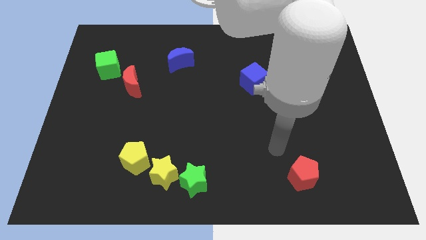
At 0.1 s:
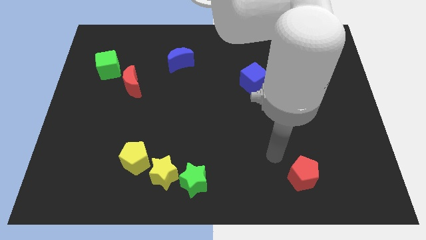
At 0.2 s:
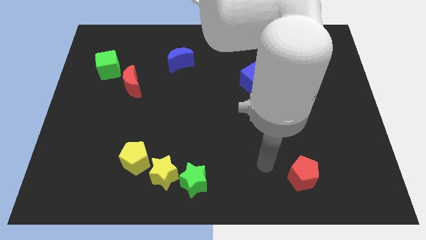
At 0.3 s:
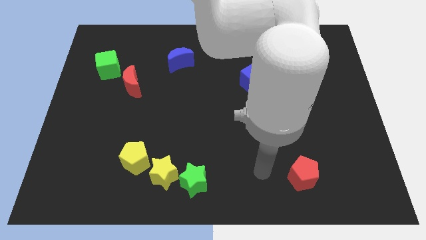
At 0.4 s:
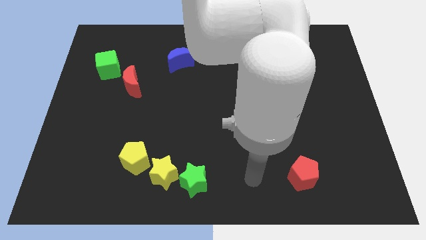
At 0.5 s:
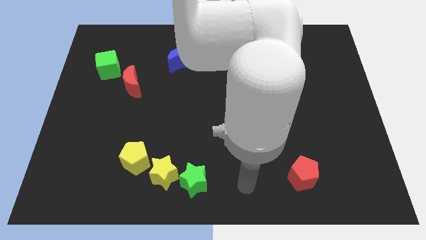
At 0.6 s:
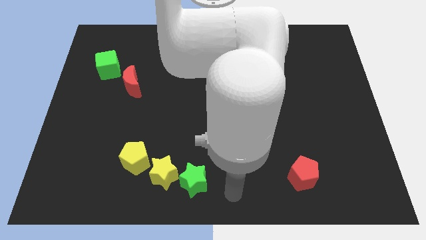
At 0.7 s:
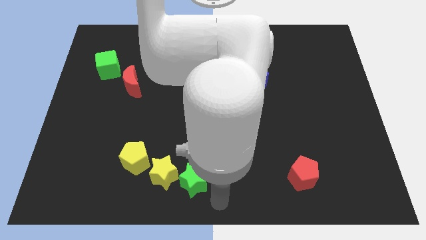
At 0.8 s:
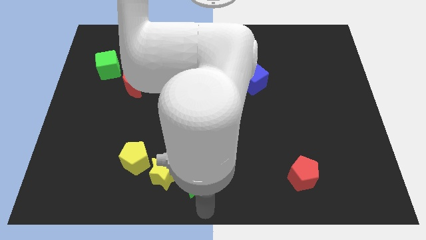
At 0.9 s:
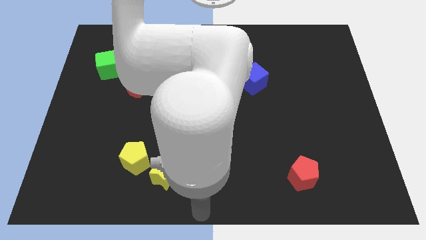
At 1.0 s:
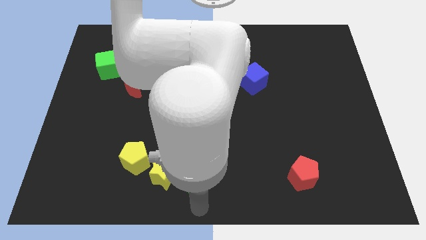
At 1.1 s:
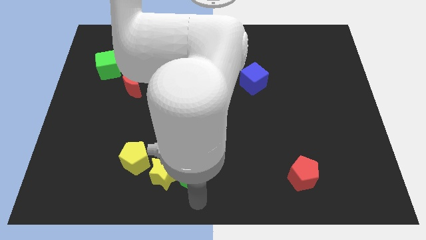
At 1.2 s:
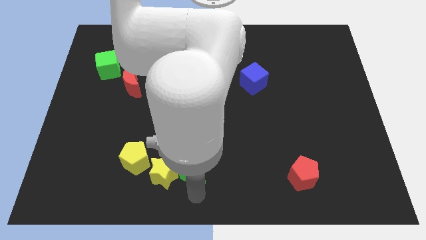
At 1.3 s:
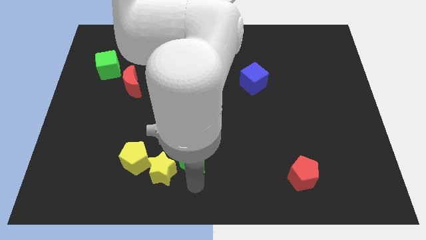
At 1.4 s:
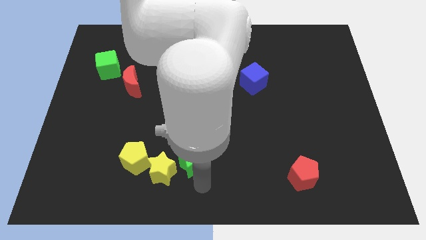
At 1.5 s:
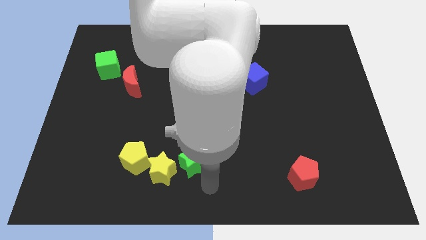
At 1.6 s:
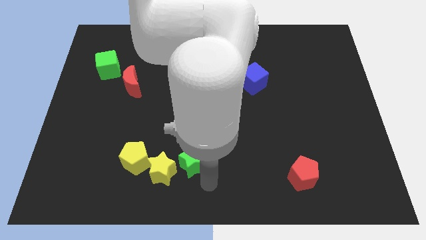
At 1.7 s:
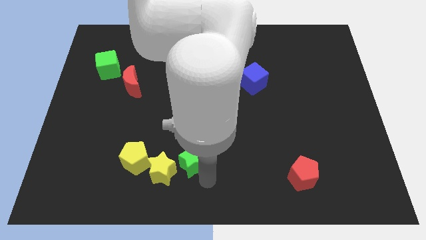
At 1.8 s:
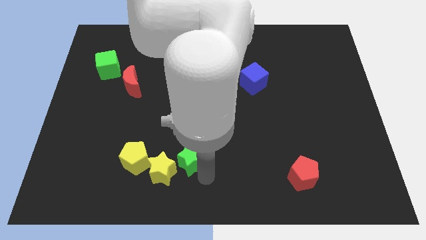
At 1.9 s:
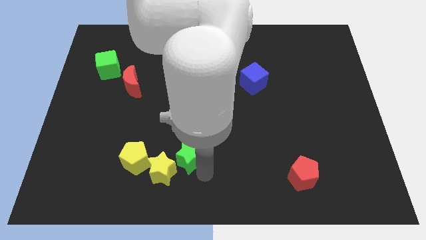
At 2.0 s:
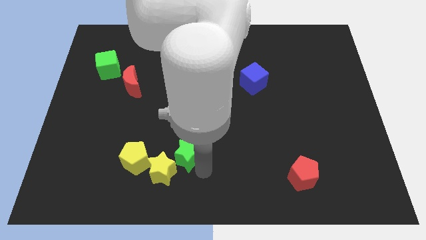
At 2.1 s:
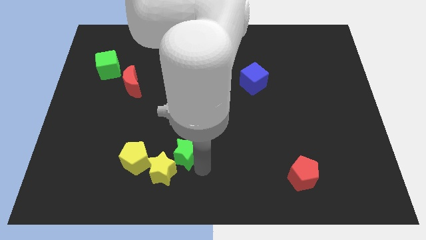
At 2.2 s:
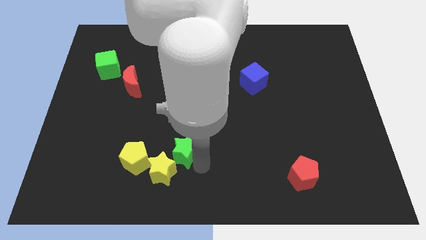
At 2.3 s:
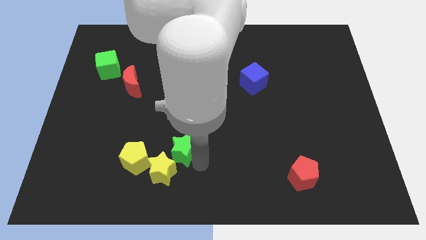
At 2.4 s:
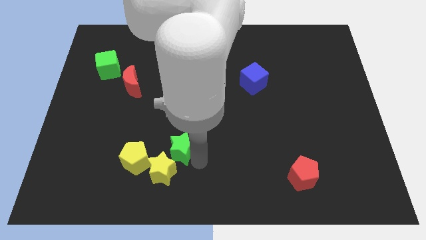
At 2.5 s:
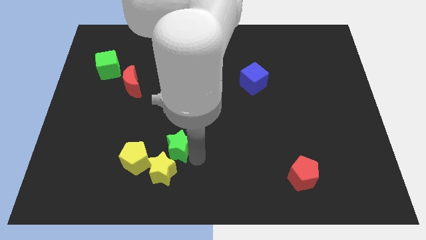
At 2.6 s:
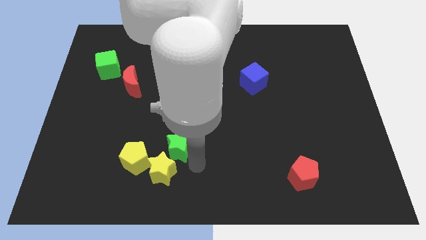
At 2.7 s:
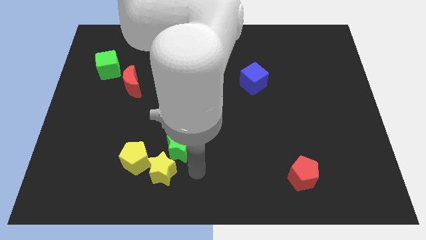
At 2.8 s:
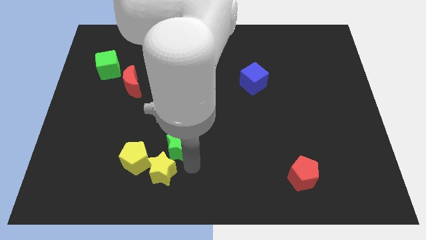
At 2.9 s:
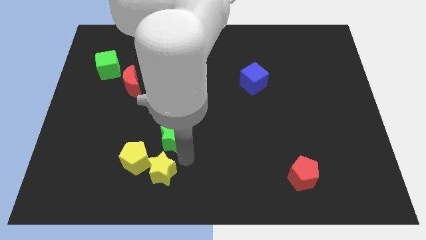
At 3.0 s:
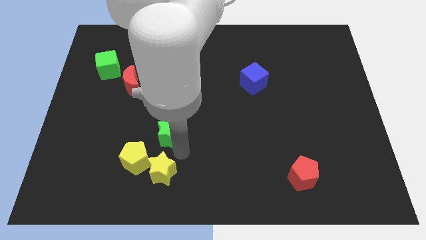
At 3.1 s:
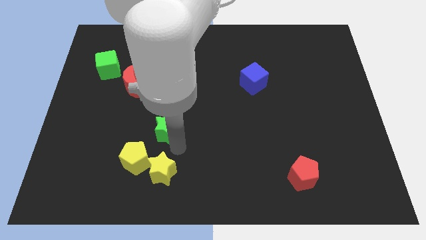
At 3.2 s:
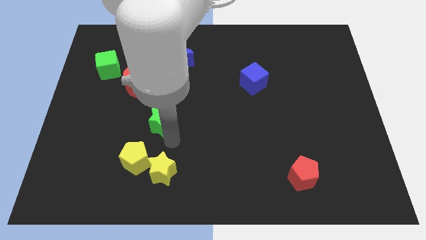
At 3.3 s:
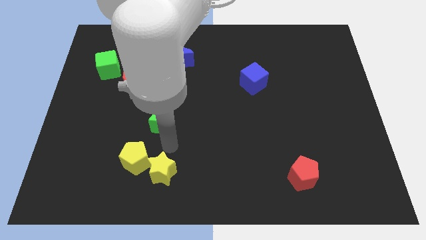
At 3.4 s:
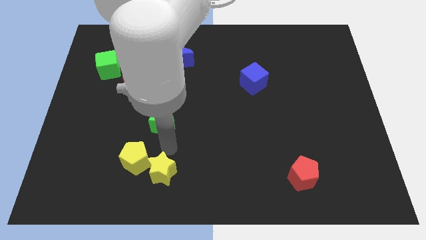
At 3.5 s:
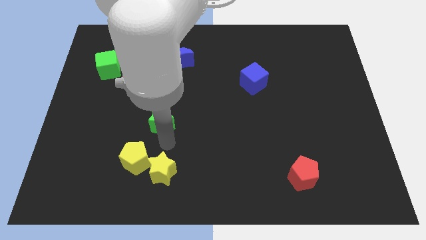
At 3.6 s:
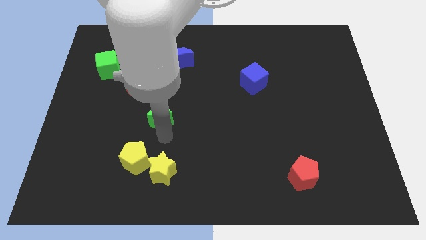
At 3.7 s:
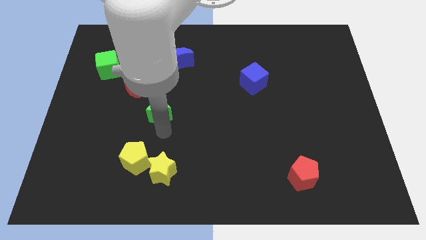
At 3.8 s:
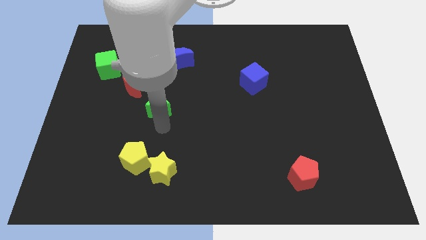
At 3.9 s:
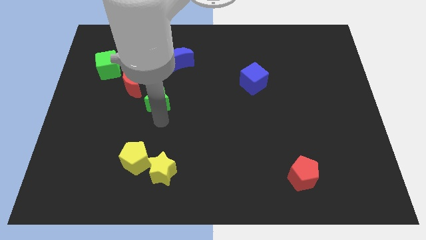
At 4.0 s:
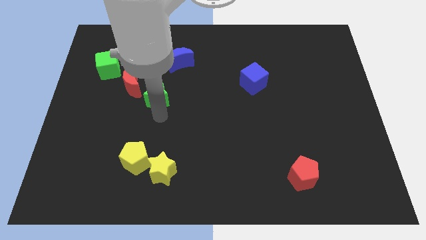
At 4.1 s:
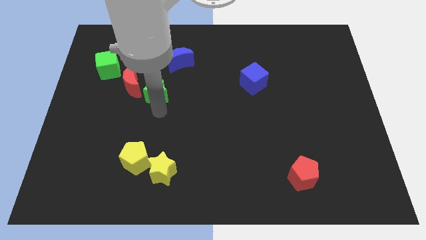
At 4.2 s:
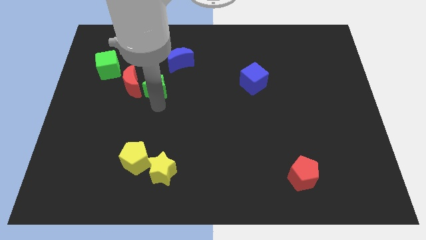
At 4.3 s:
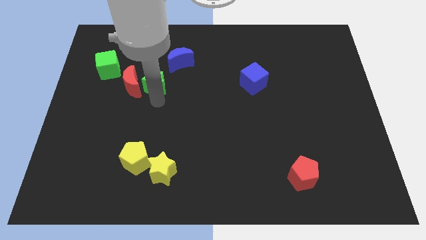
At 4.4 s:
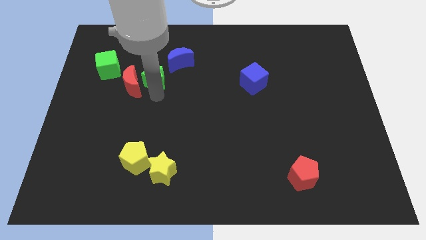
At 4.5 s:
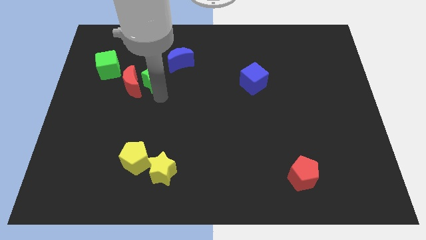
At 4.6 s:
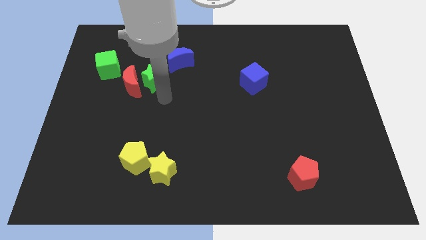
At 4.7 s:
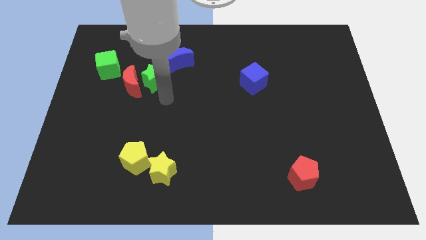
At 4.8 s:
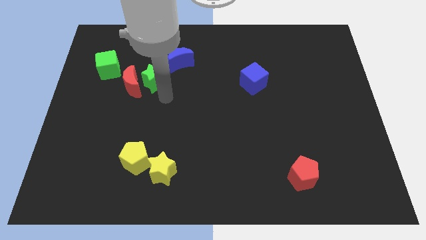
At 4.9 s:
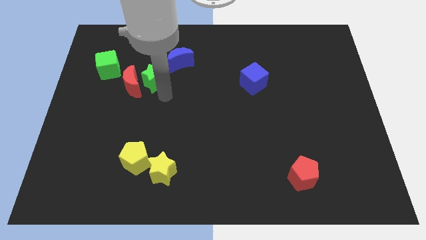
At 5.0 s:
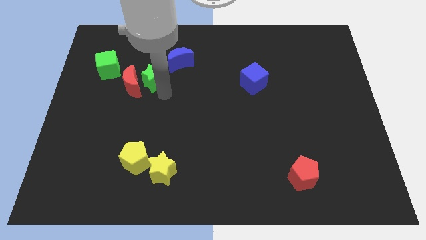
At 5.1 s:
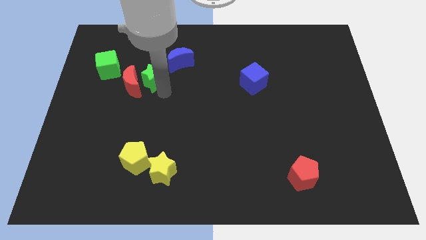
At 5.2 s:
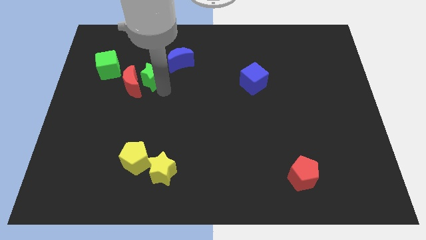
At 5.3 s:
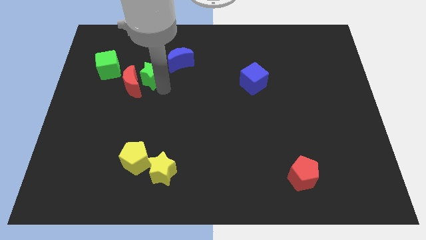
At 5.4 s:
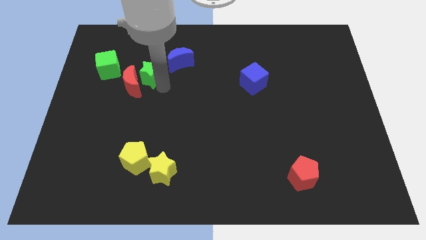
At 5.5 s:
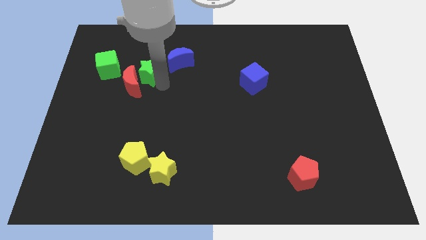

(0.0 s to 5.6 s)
push the green star just left of the blue moon

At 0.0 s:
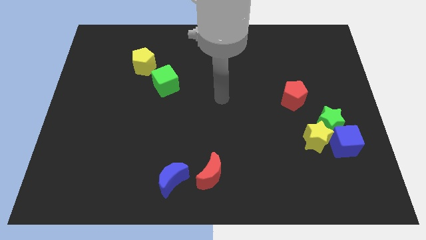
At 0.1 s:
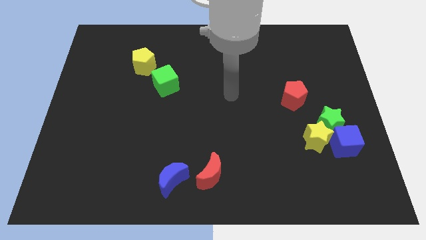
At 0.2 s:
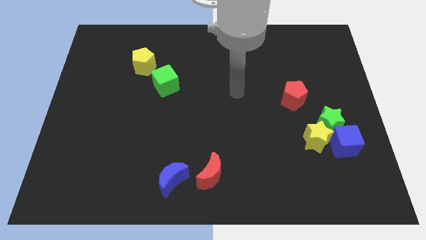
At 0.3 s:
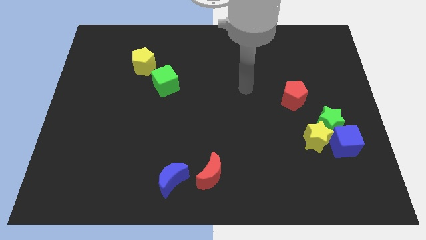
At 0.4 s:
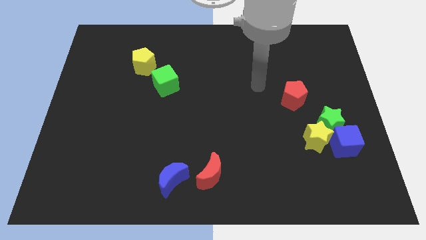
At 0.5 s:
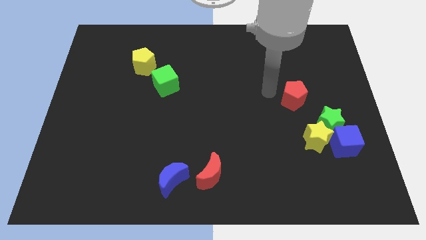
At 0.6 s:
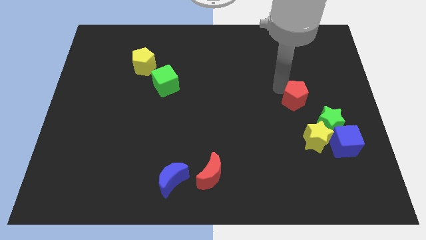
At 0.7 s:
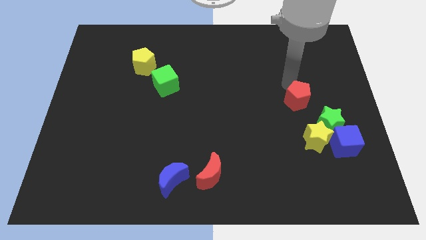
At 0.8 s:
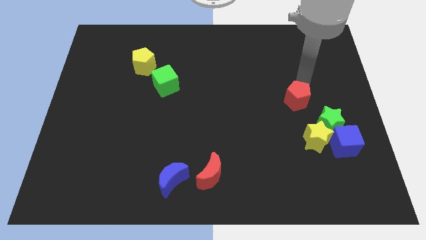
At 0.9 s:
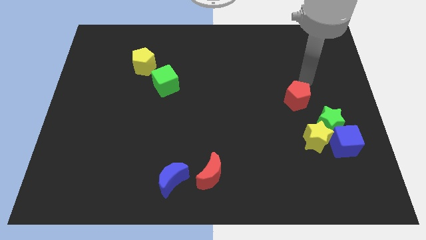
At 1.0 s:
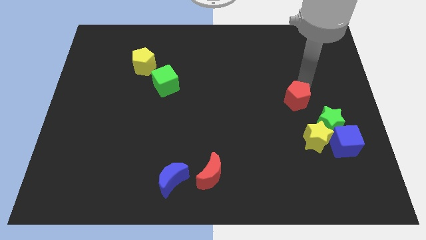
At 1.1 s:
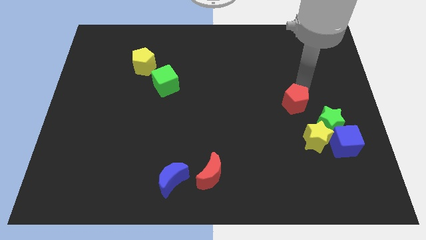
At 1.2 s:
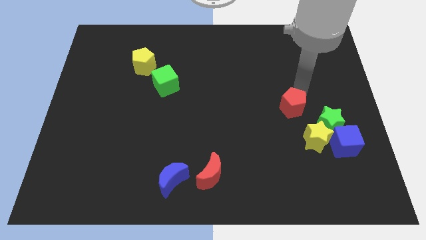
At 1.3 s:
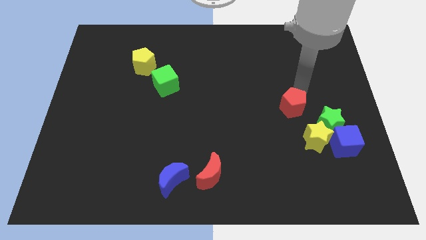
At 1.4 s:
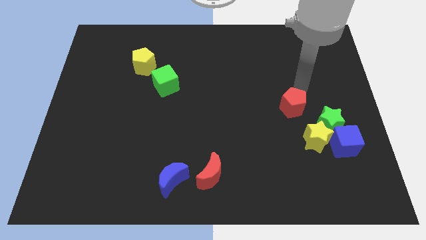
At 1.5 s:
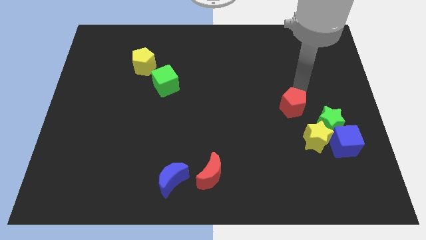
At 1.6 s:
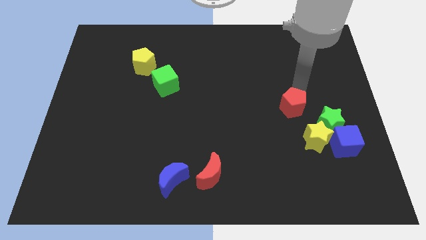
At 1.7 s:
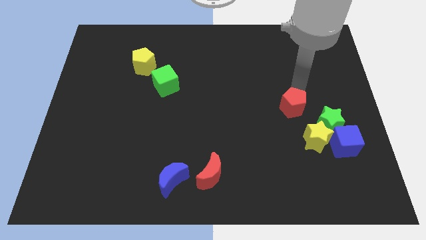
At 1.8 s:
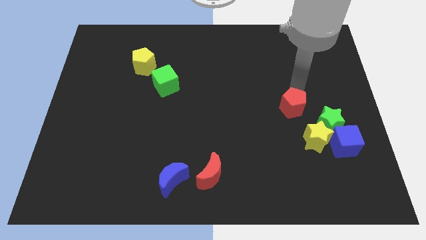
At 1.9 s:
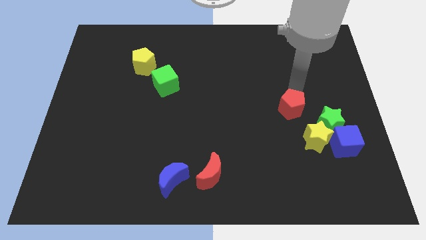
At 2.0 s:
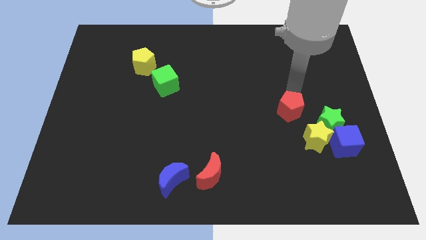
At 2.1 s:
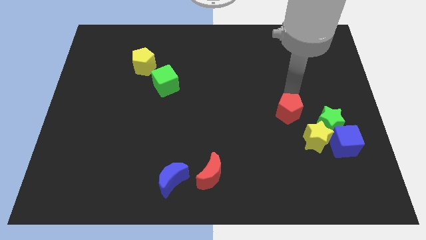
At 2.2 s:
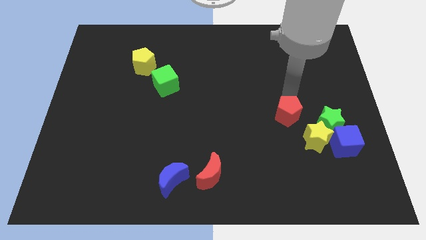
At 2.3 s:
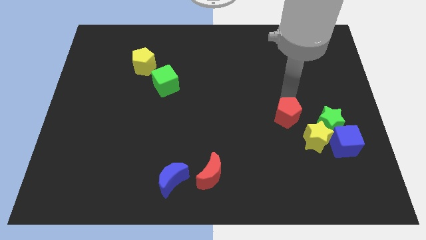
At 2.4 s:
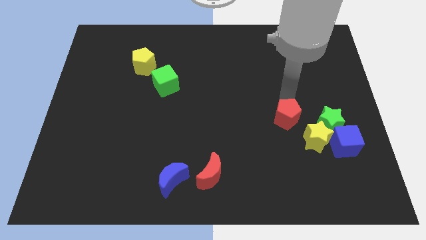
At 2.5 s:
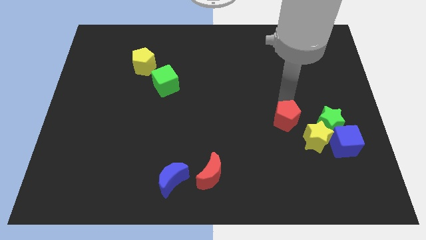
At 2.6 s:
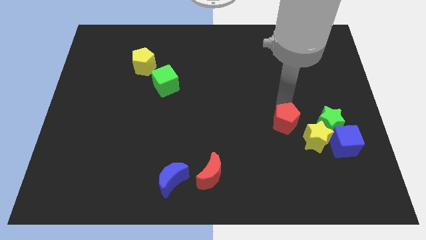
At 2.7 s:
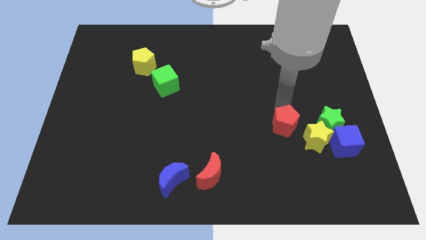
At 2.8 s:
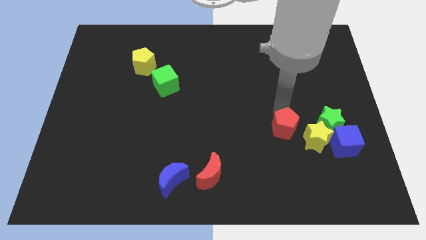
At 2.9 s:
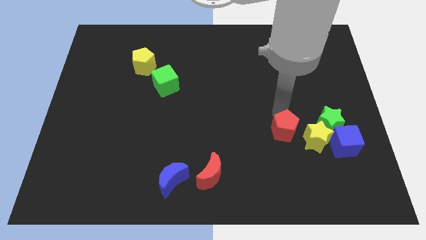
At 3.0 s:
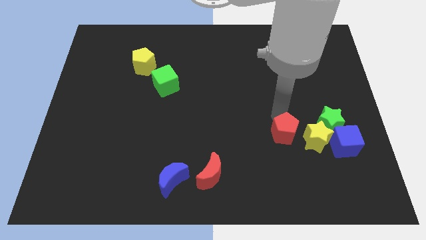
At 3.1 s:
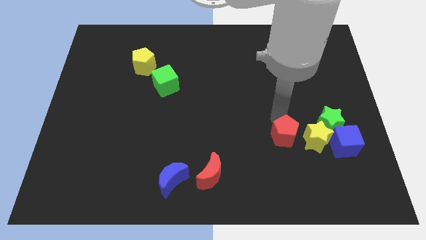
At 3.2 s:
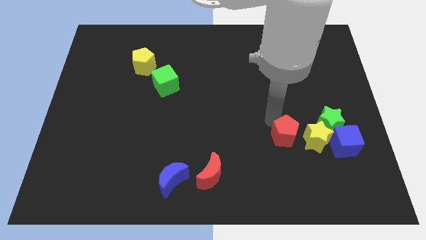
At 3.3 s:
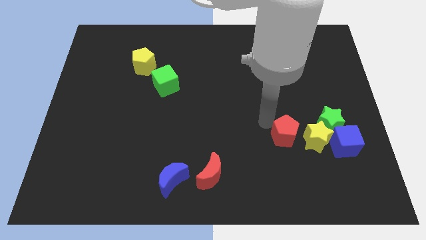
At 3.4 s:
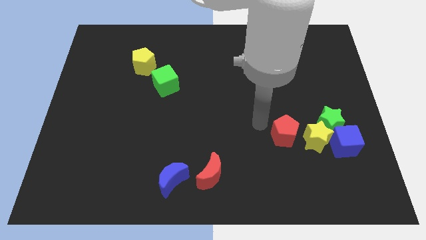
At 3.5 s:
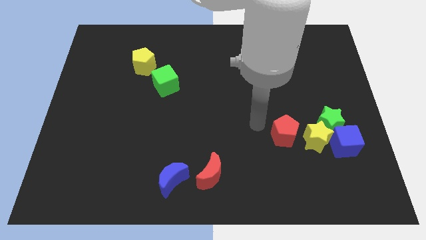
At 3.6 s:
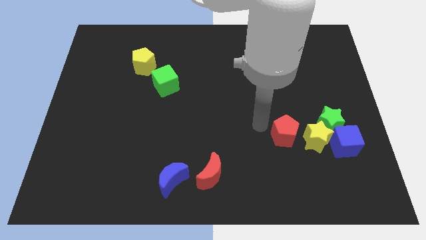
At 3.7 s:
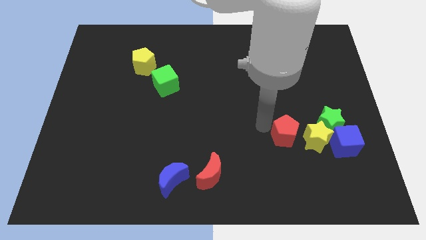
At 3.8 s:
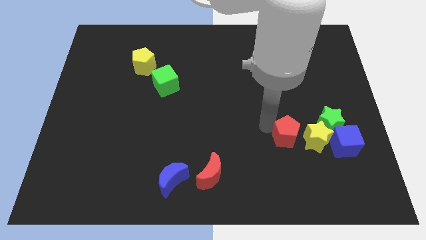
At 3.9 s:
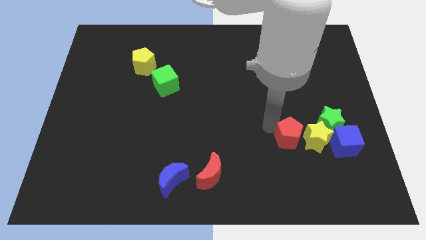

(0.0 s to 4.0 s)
slide the red pentagon diagonally down and to the left of the green star
